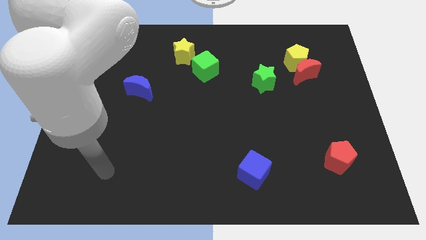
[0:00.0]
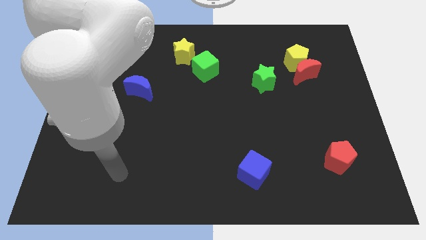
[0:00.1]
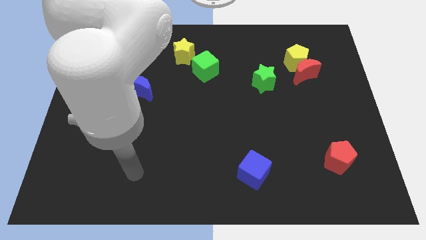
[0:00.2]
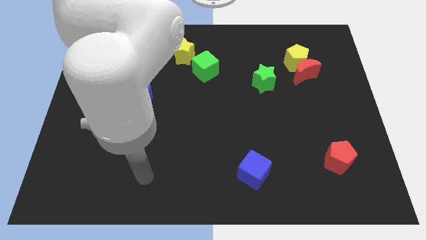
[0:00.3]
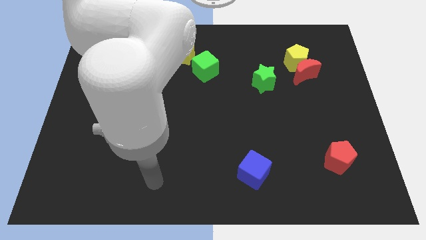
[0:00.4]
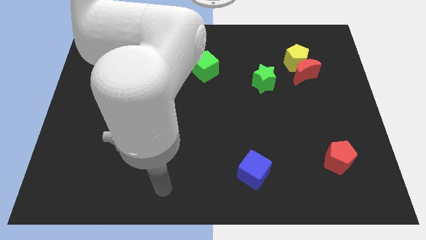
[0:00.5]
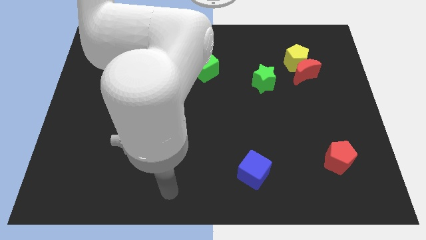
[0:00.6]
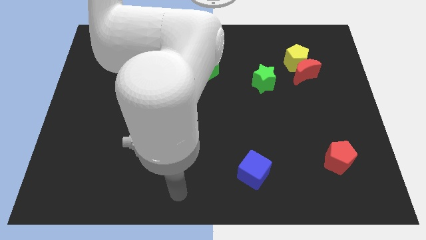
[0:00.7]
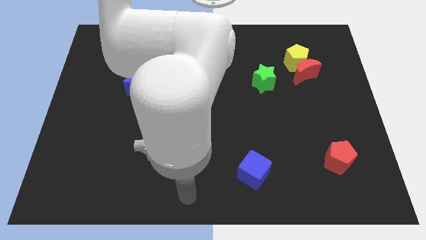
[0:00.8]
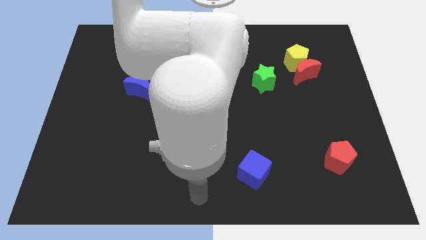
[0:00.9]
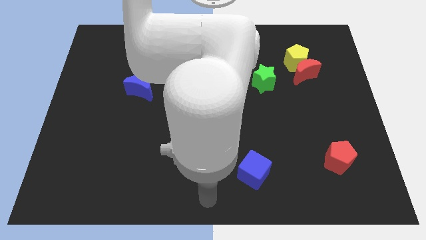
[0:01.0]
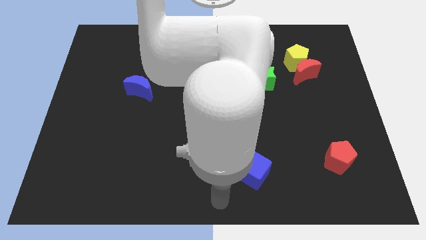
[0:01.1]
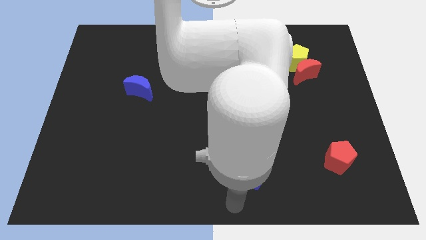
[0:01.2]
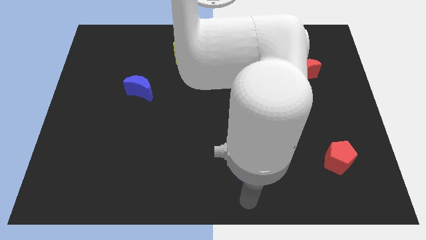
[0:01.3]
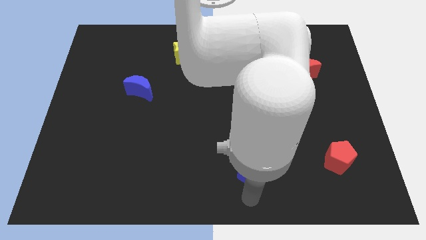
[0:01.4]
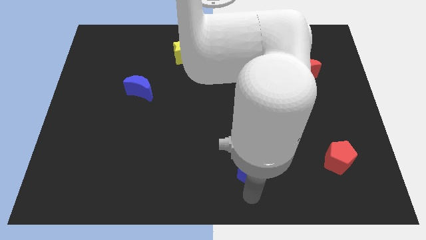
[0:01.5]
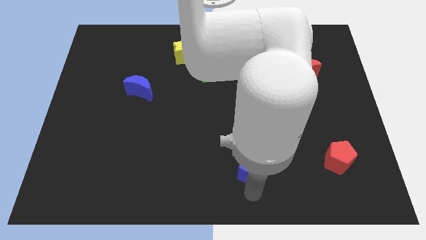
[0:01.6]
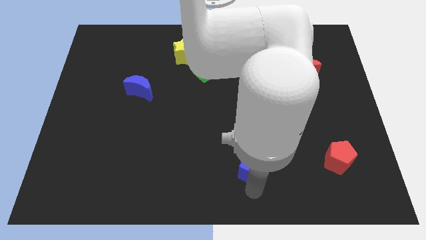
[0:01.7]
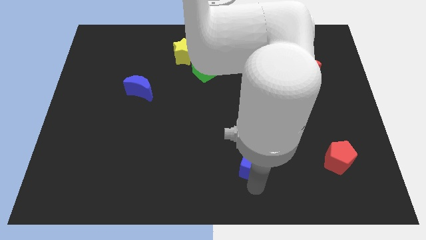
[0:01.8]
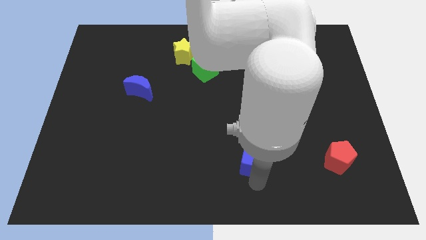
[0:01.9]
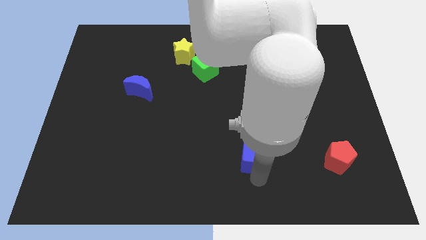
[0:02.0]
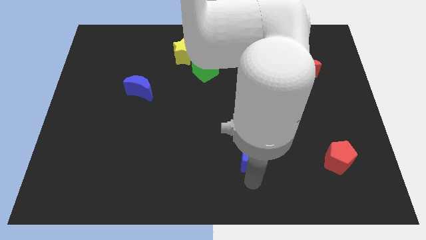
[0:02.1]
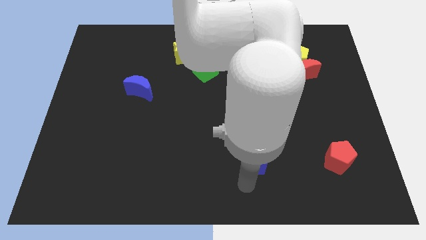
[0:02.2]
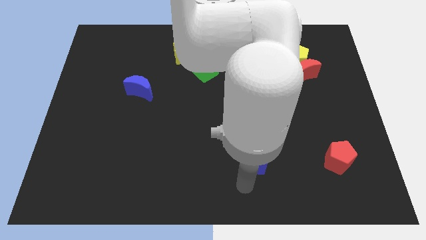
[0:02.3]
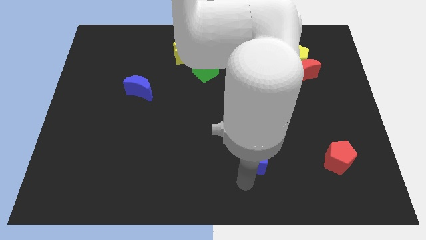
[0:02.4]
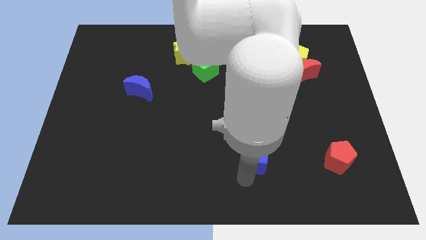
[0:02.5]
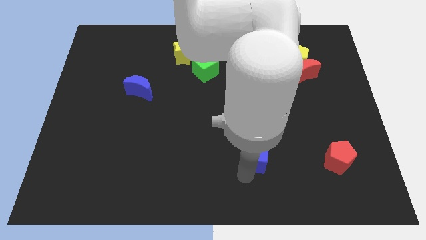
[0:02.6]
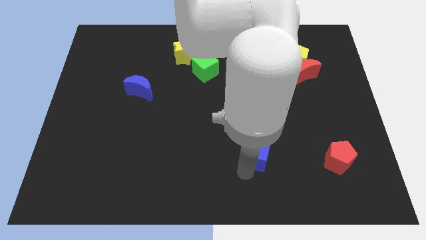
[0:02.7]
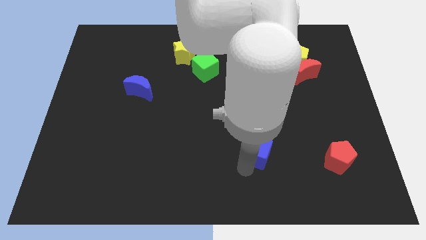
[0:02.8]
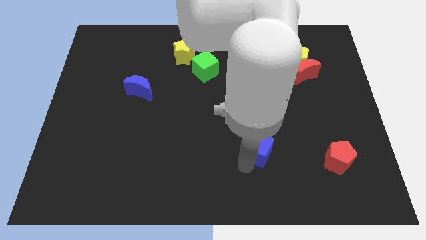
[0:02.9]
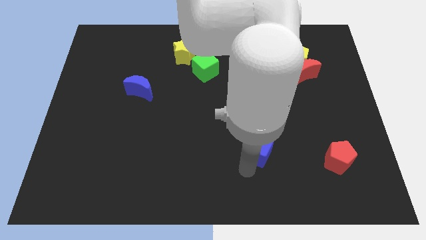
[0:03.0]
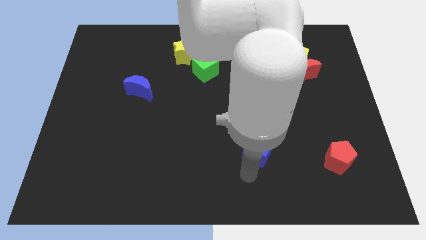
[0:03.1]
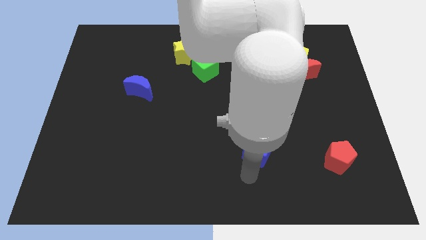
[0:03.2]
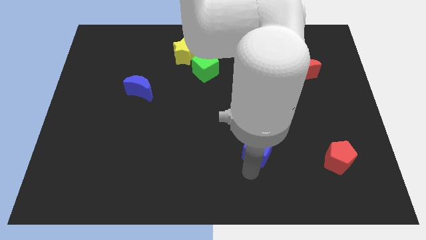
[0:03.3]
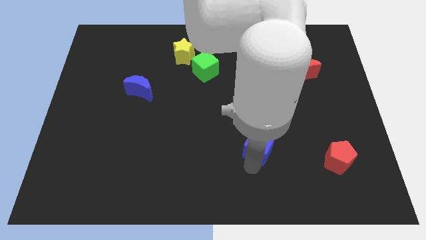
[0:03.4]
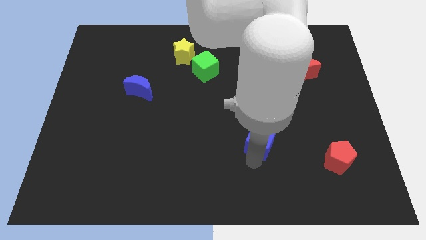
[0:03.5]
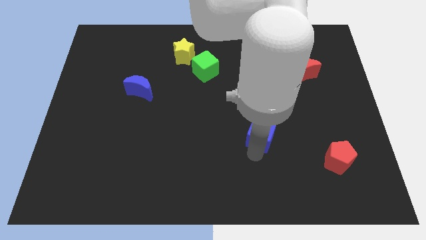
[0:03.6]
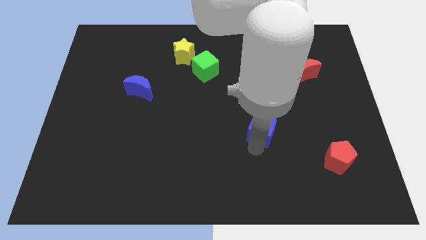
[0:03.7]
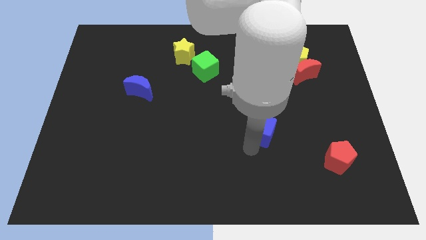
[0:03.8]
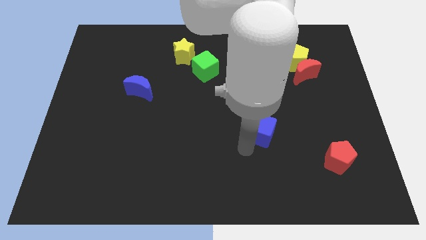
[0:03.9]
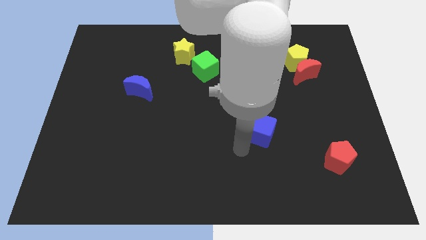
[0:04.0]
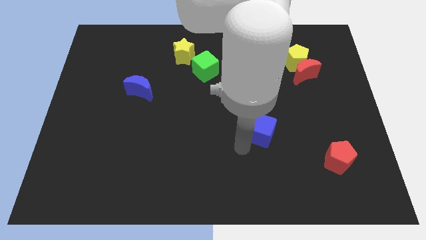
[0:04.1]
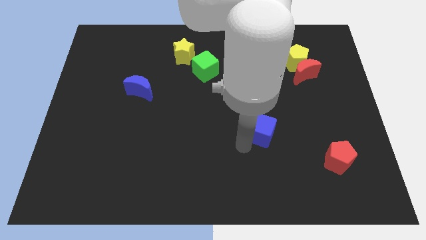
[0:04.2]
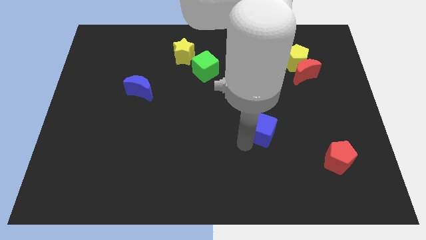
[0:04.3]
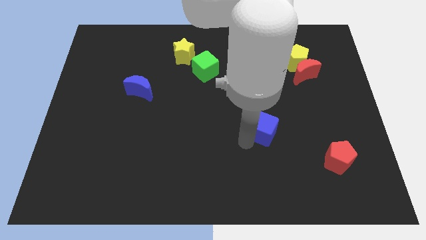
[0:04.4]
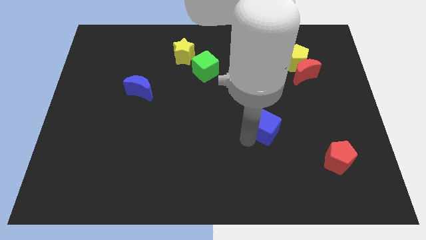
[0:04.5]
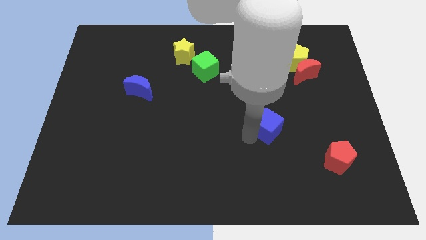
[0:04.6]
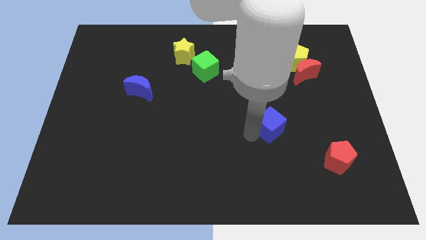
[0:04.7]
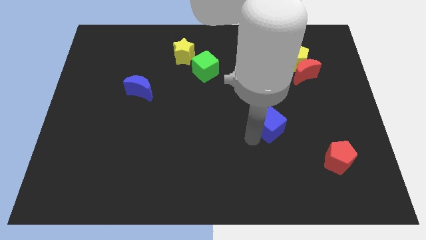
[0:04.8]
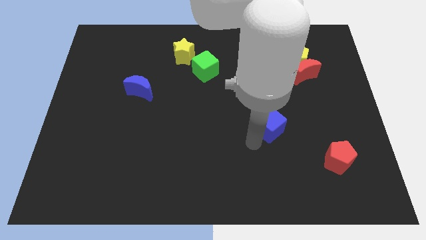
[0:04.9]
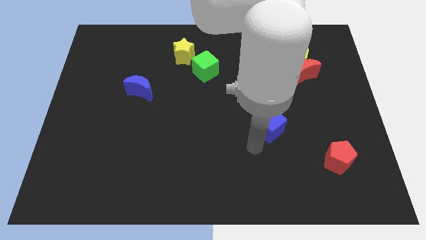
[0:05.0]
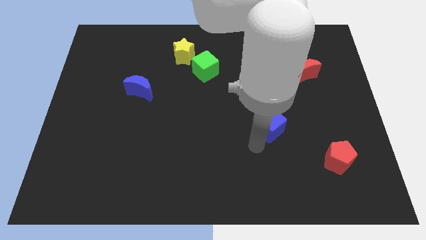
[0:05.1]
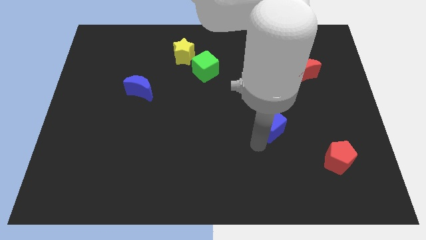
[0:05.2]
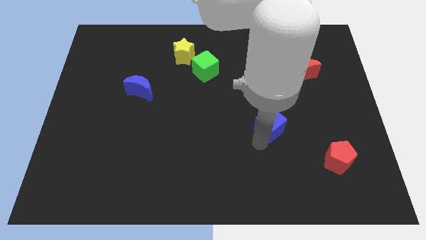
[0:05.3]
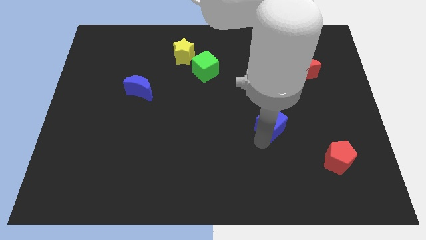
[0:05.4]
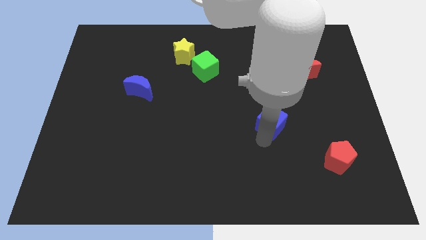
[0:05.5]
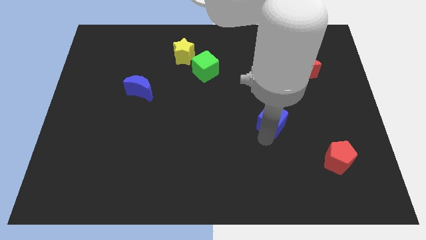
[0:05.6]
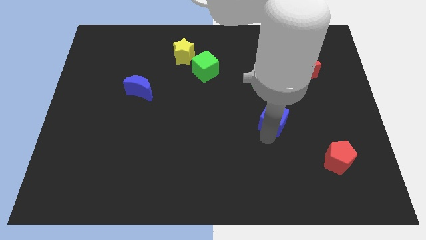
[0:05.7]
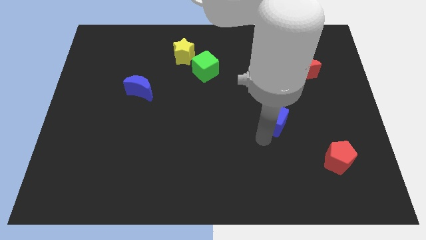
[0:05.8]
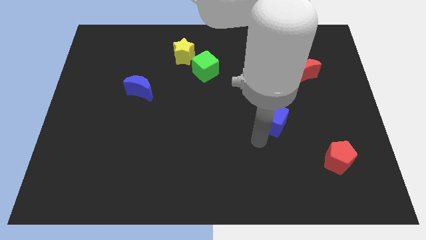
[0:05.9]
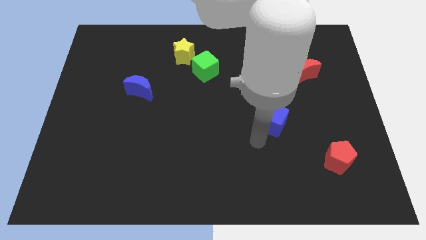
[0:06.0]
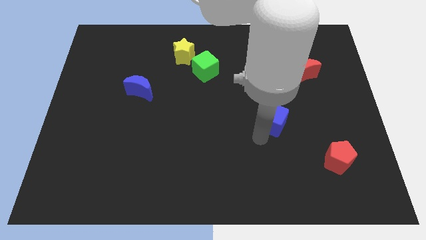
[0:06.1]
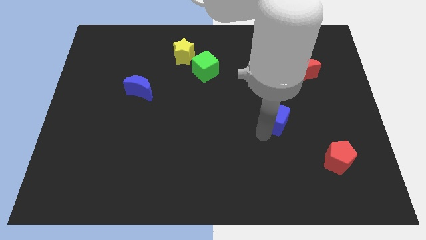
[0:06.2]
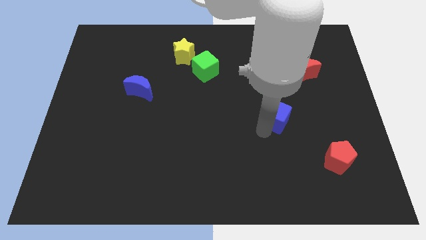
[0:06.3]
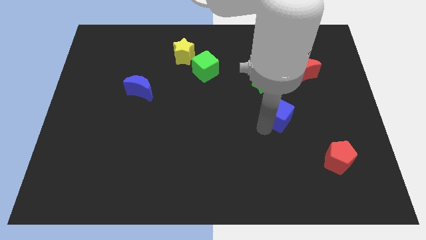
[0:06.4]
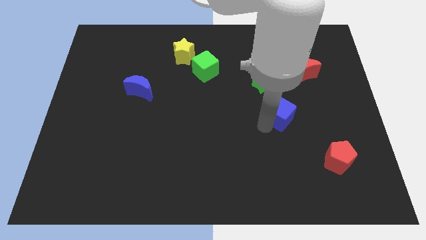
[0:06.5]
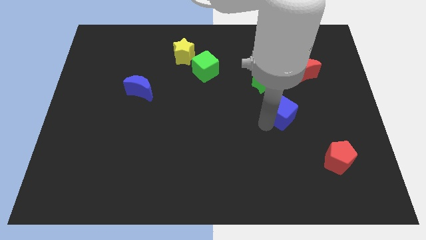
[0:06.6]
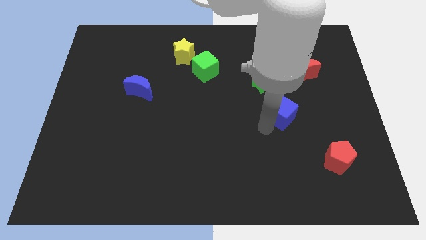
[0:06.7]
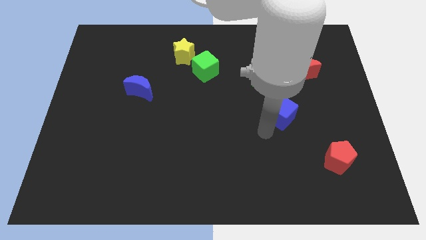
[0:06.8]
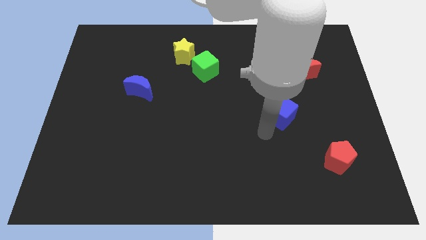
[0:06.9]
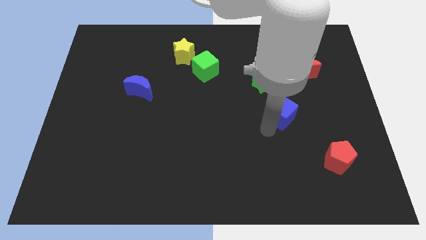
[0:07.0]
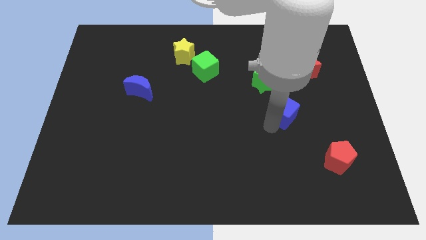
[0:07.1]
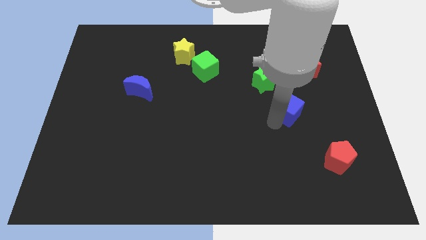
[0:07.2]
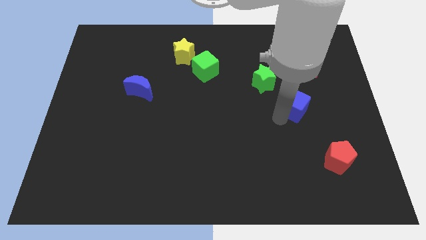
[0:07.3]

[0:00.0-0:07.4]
put the blue cube below the yellow pentagon
